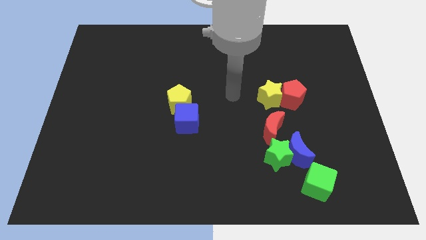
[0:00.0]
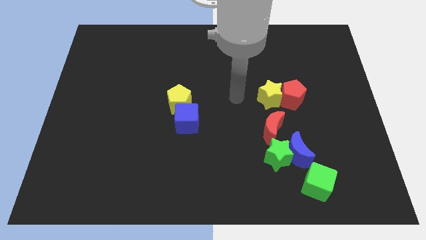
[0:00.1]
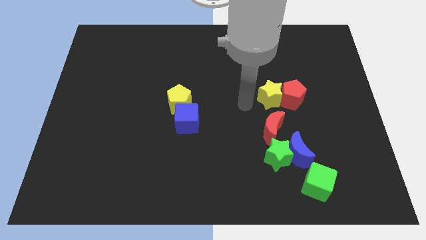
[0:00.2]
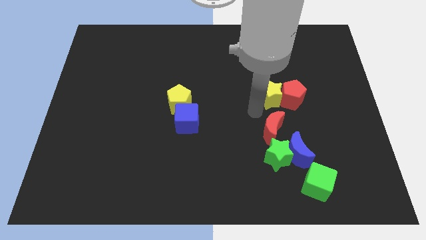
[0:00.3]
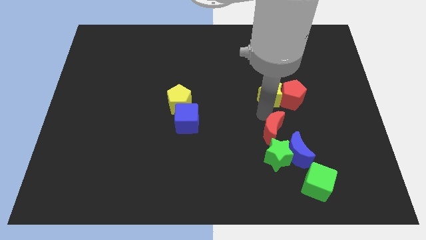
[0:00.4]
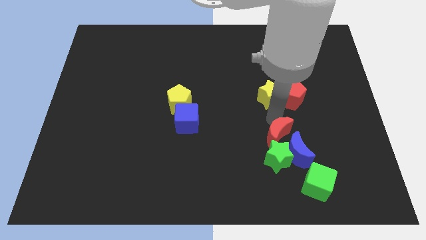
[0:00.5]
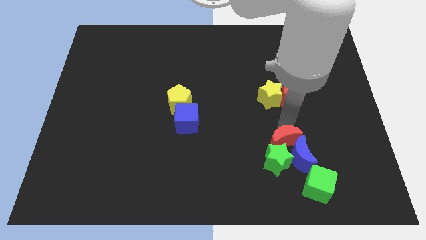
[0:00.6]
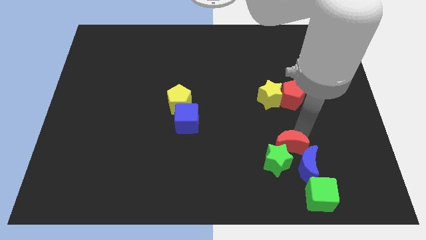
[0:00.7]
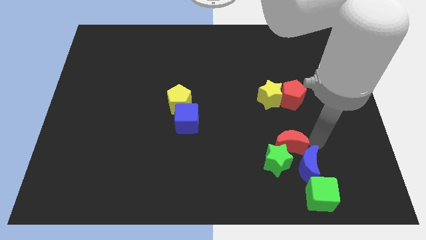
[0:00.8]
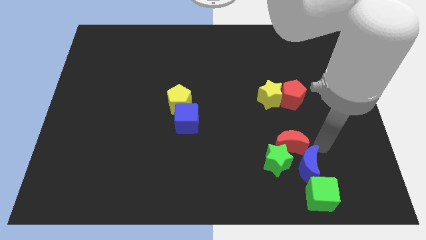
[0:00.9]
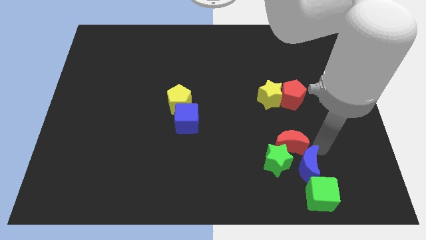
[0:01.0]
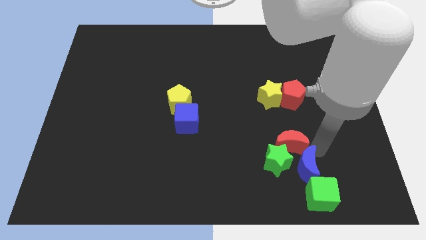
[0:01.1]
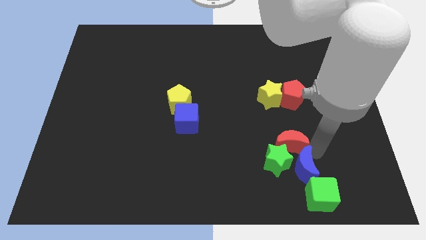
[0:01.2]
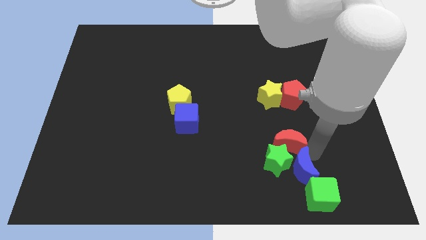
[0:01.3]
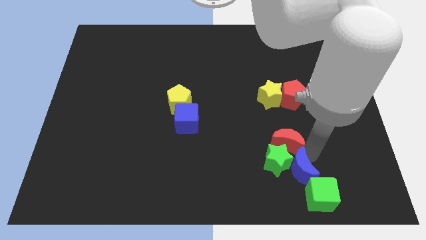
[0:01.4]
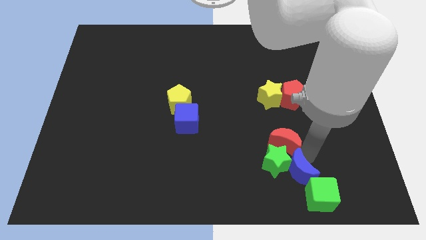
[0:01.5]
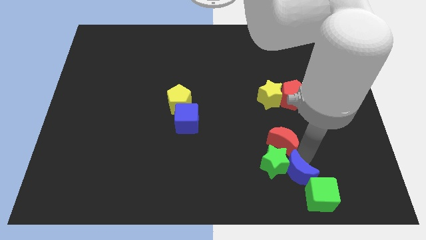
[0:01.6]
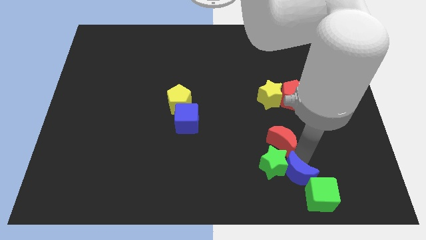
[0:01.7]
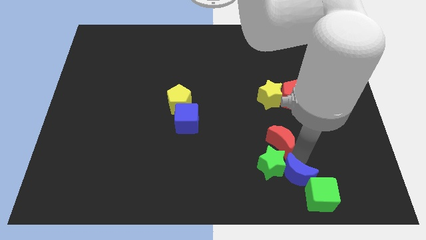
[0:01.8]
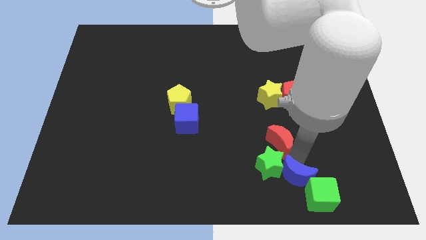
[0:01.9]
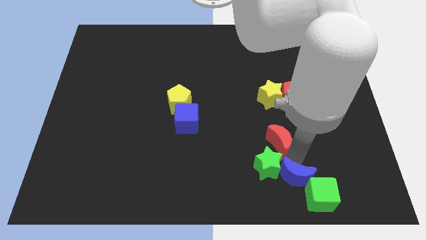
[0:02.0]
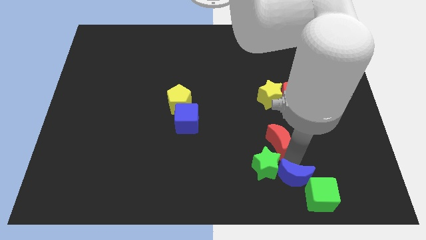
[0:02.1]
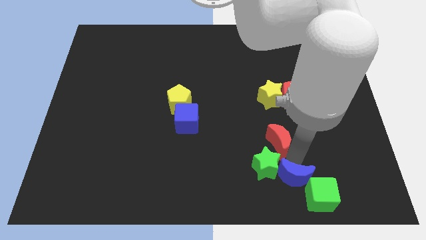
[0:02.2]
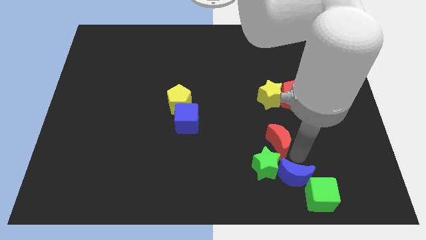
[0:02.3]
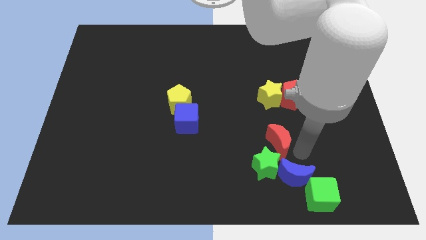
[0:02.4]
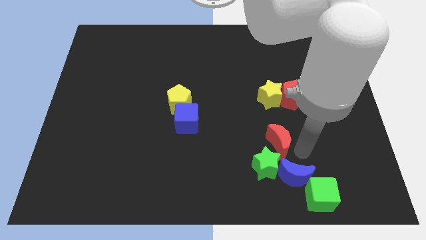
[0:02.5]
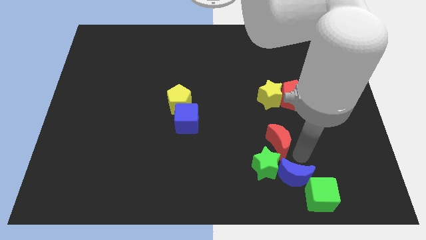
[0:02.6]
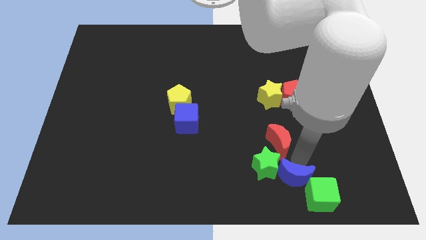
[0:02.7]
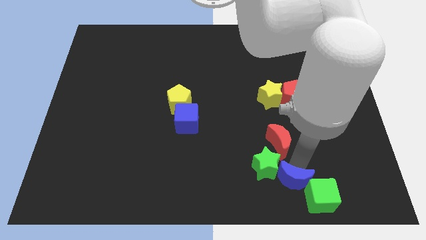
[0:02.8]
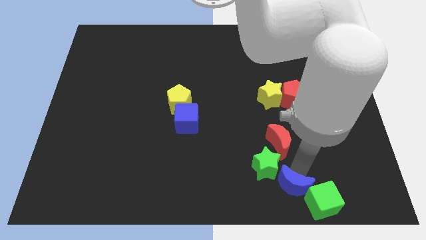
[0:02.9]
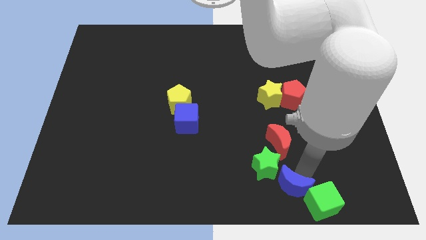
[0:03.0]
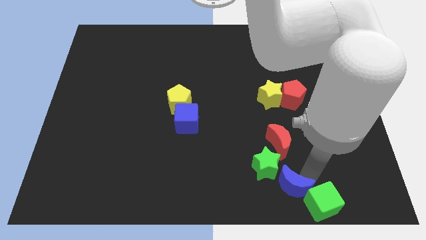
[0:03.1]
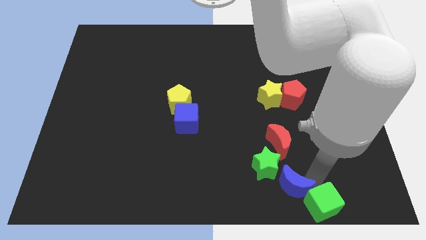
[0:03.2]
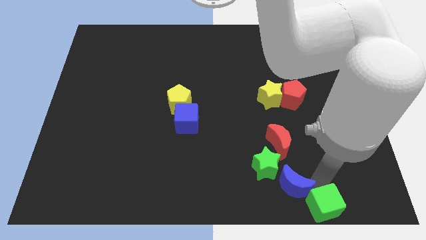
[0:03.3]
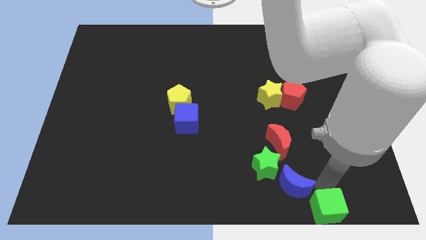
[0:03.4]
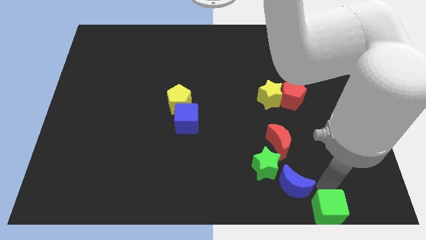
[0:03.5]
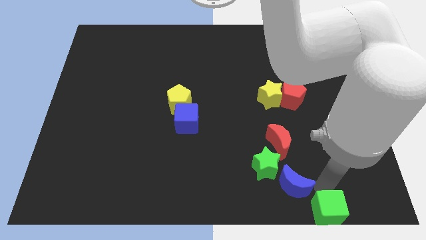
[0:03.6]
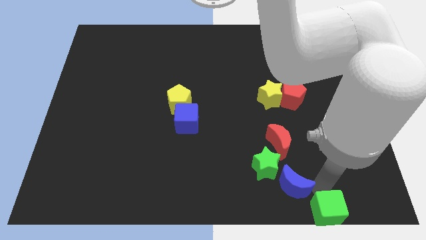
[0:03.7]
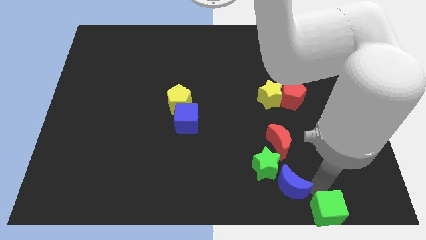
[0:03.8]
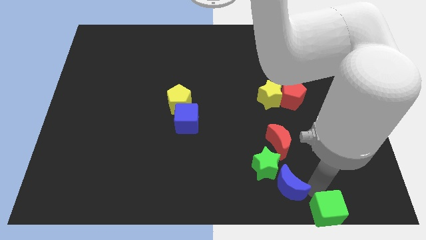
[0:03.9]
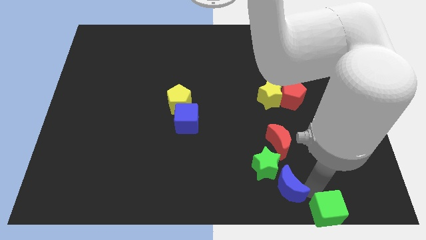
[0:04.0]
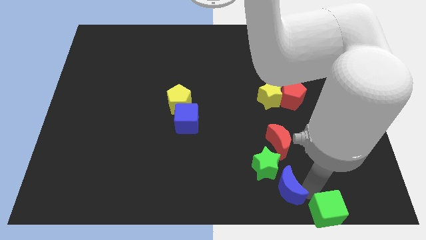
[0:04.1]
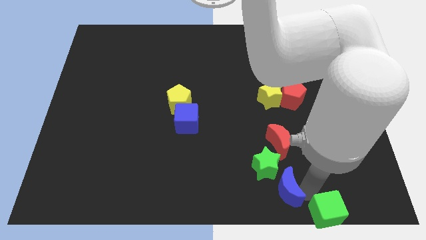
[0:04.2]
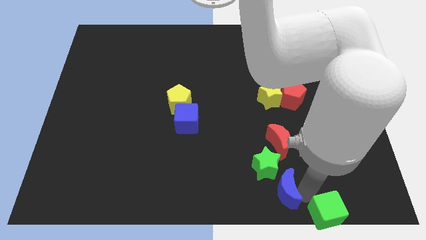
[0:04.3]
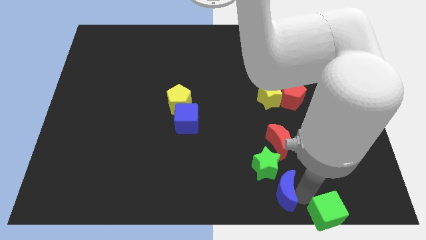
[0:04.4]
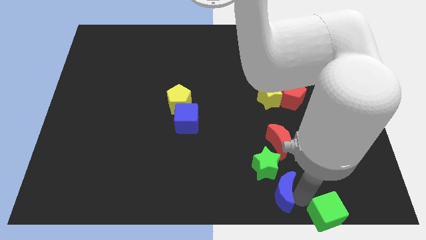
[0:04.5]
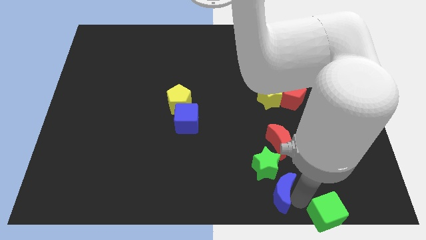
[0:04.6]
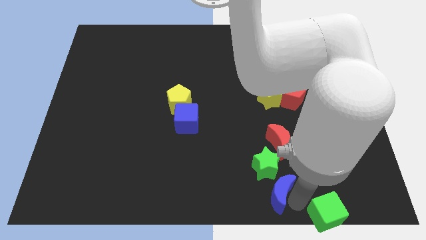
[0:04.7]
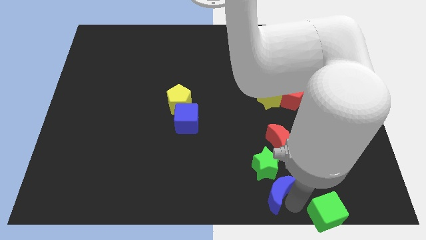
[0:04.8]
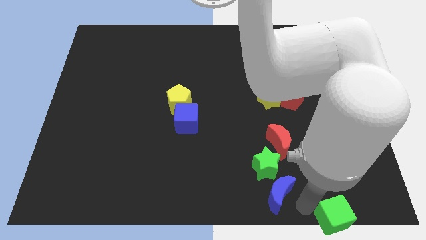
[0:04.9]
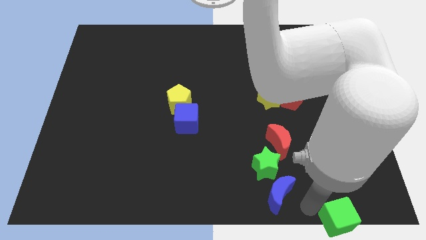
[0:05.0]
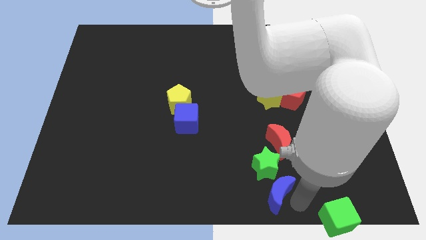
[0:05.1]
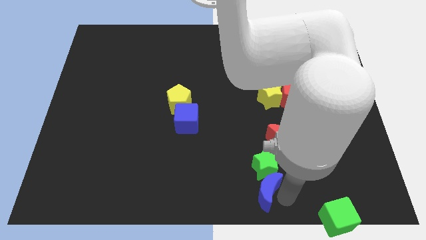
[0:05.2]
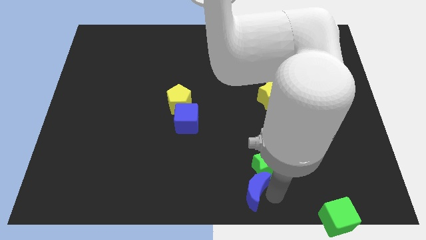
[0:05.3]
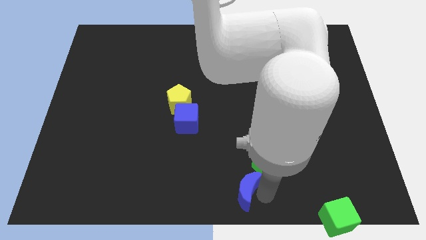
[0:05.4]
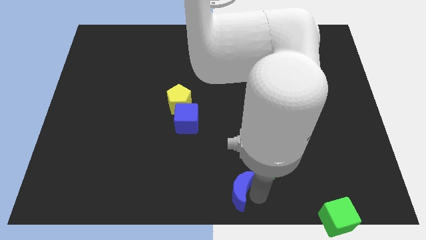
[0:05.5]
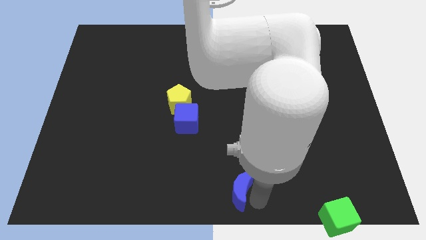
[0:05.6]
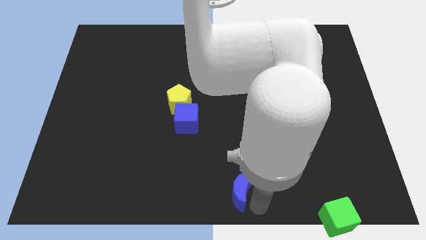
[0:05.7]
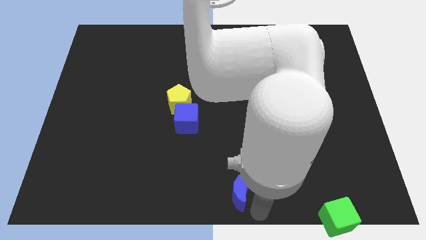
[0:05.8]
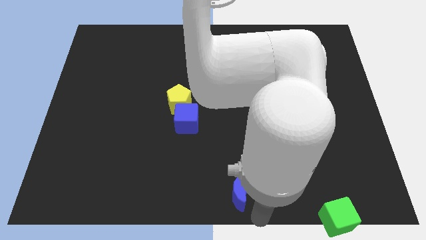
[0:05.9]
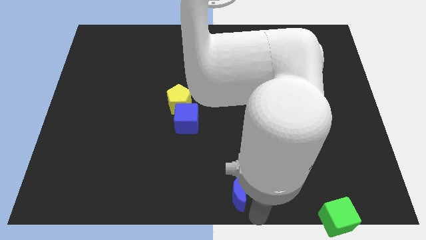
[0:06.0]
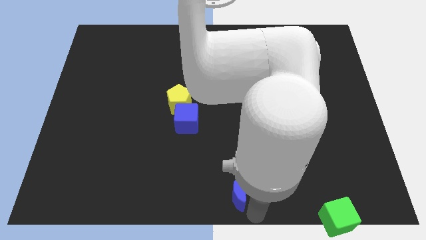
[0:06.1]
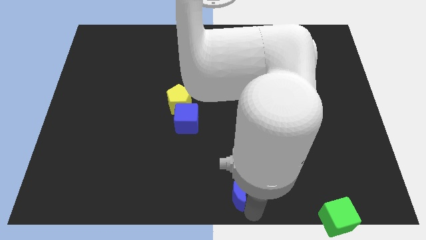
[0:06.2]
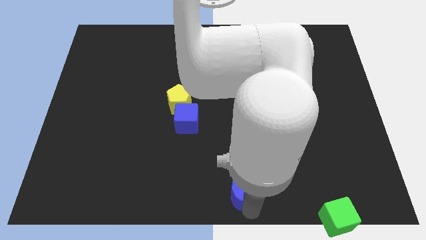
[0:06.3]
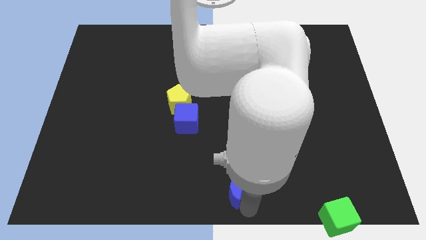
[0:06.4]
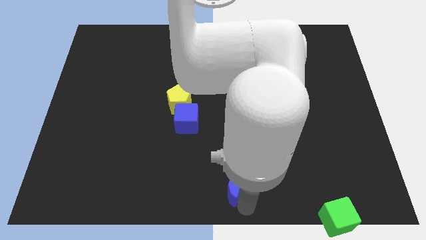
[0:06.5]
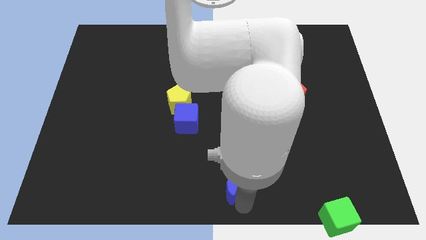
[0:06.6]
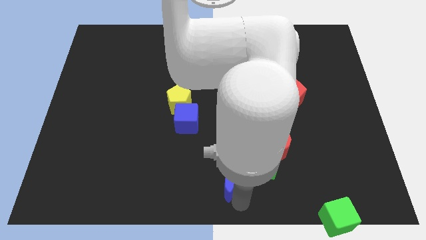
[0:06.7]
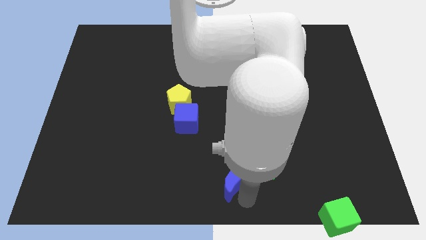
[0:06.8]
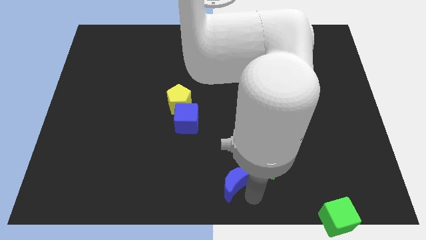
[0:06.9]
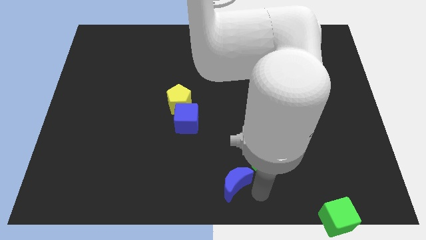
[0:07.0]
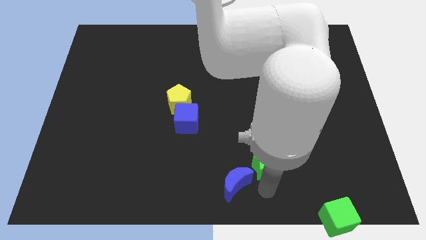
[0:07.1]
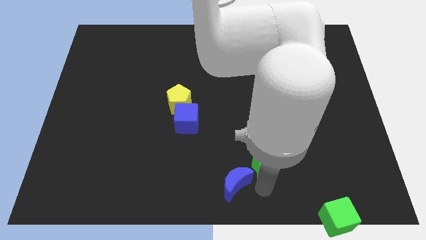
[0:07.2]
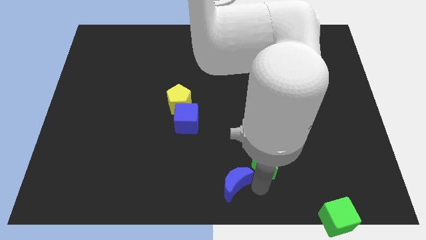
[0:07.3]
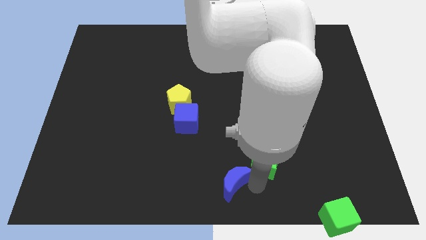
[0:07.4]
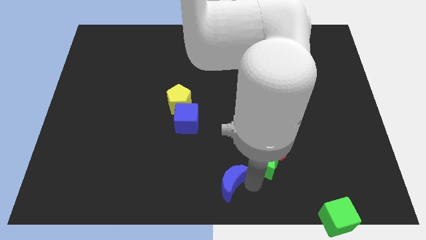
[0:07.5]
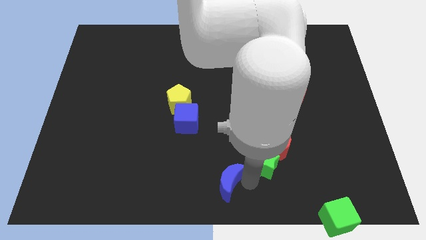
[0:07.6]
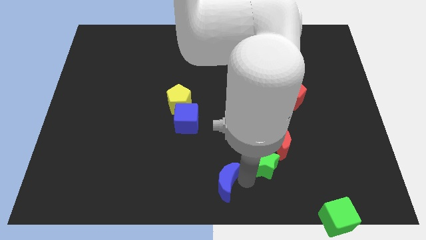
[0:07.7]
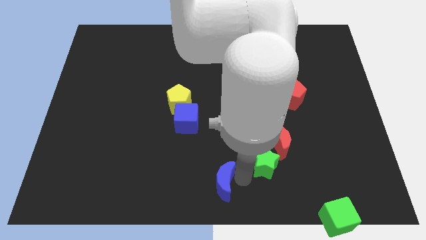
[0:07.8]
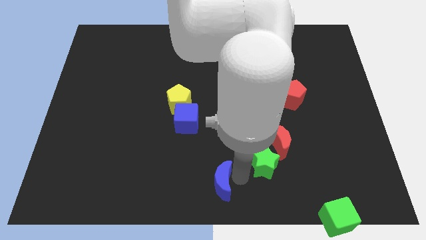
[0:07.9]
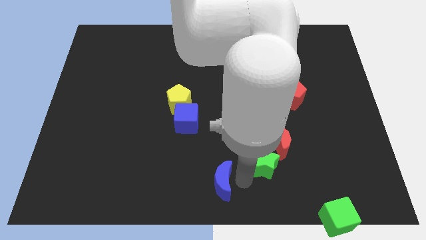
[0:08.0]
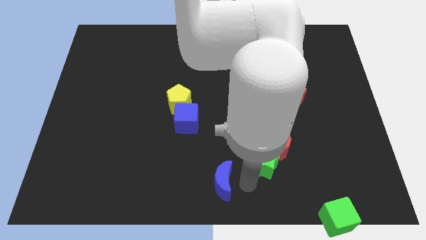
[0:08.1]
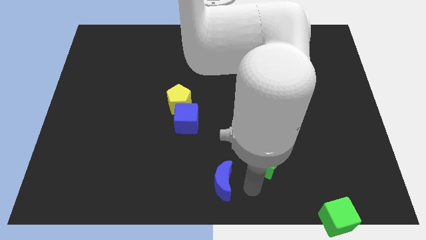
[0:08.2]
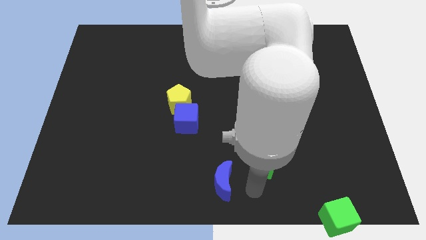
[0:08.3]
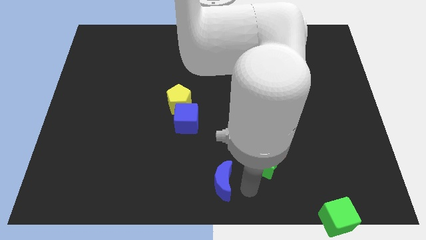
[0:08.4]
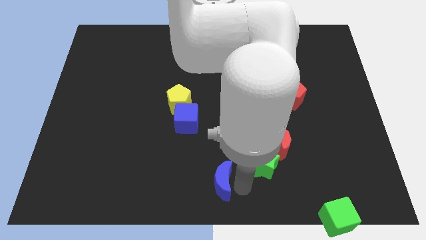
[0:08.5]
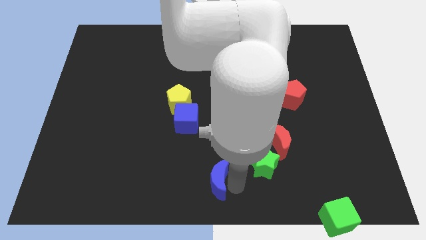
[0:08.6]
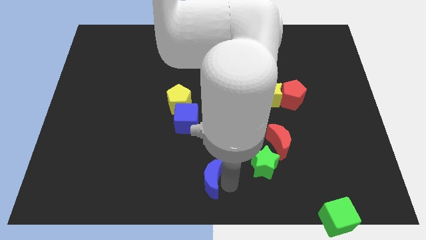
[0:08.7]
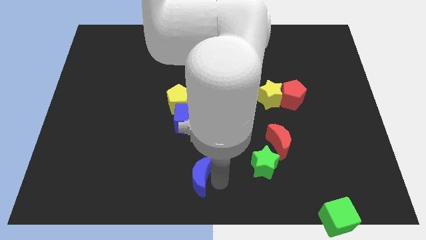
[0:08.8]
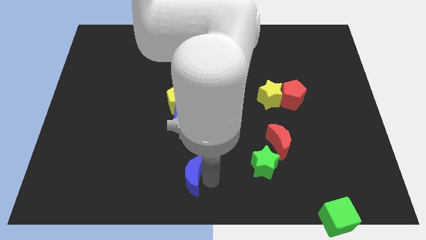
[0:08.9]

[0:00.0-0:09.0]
push the blue moon left
